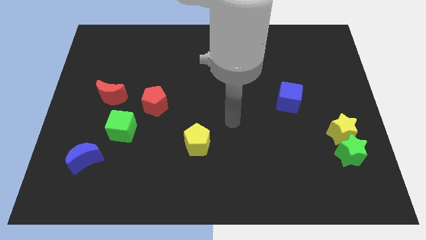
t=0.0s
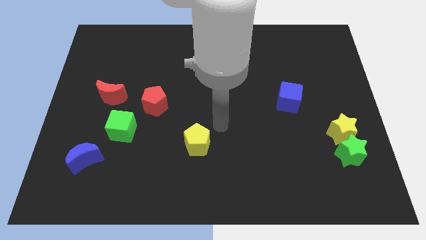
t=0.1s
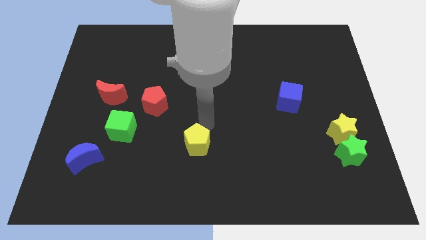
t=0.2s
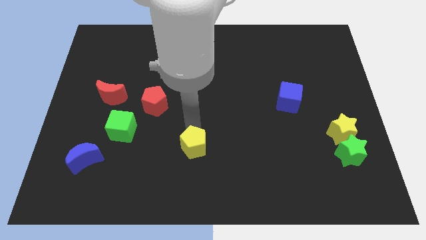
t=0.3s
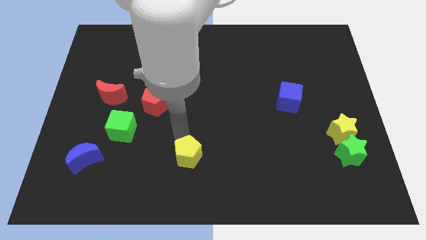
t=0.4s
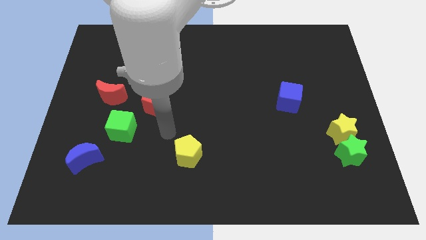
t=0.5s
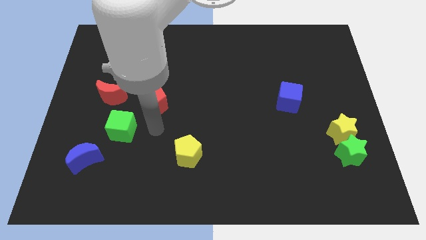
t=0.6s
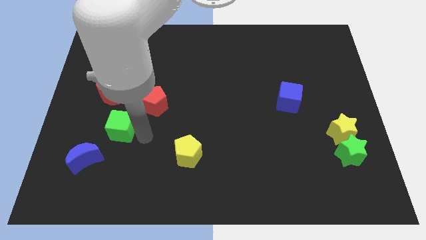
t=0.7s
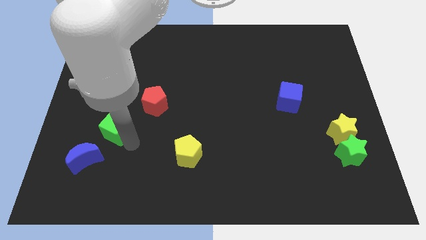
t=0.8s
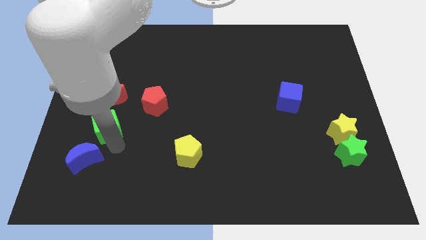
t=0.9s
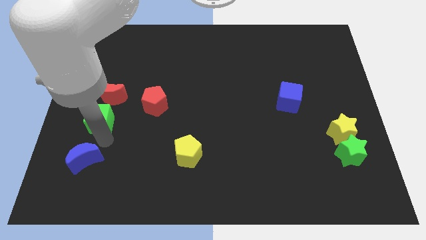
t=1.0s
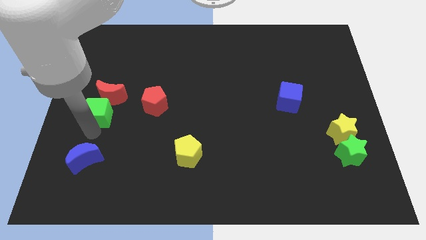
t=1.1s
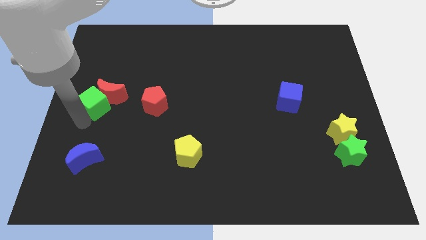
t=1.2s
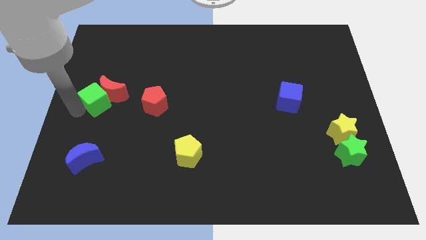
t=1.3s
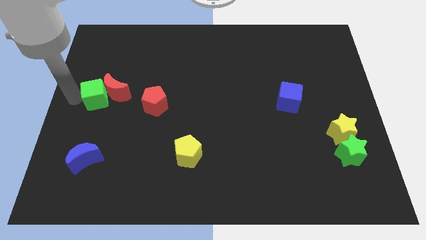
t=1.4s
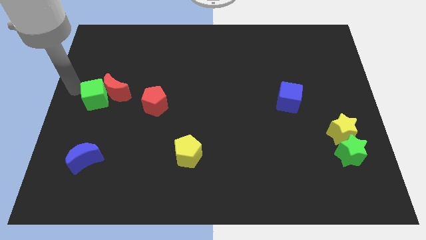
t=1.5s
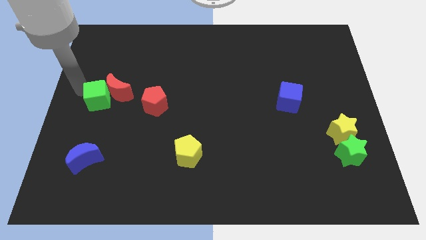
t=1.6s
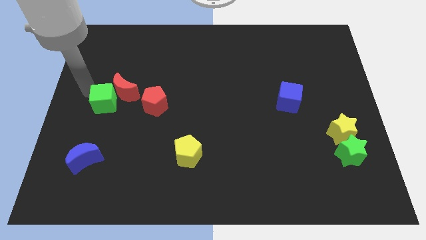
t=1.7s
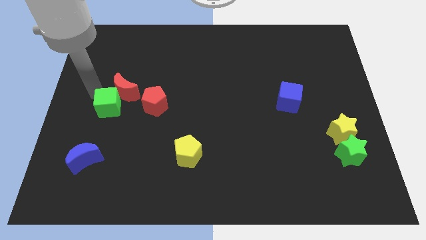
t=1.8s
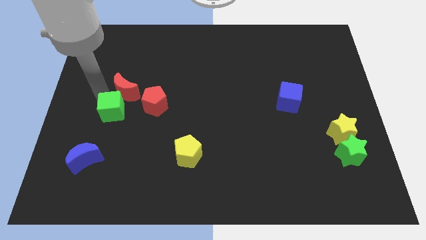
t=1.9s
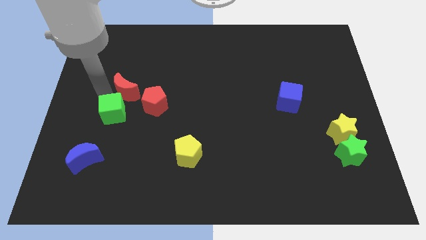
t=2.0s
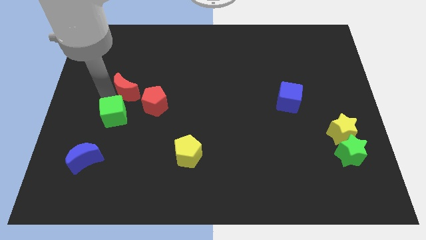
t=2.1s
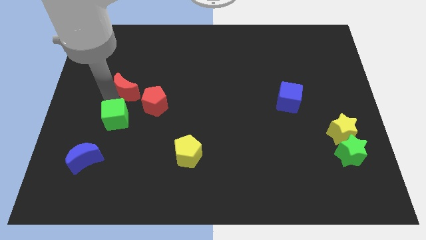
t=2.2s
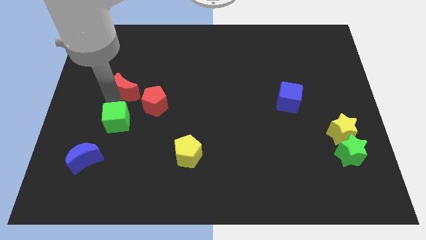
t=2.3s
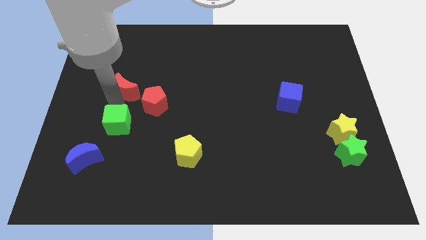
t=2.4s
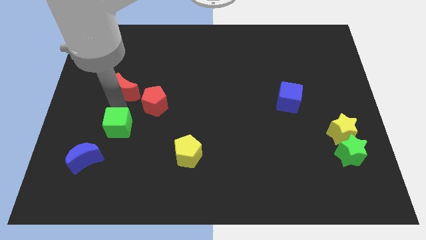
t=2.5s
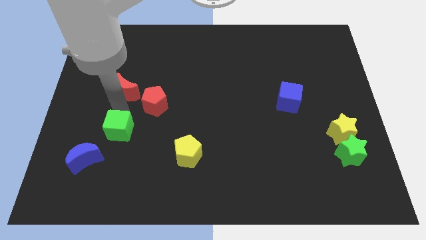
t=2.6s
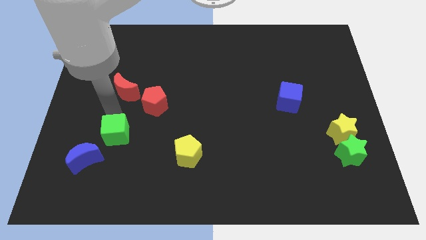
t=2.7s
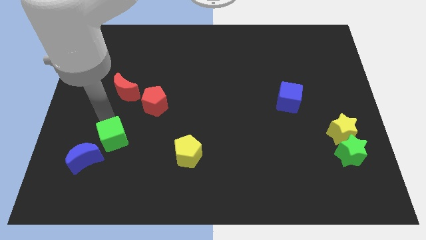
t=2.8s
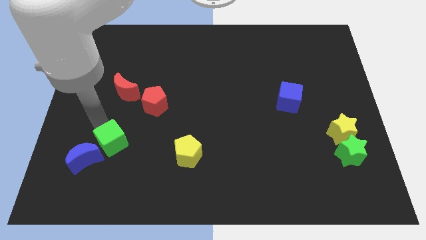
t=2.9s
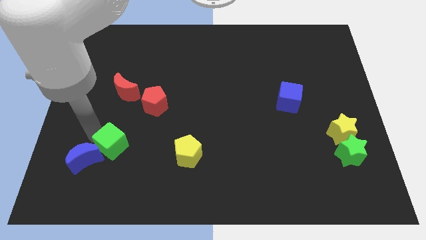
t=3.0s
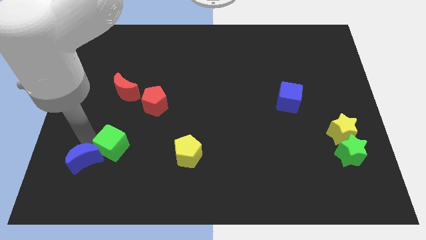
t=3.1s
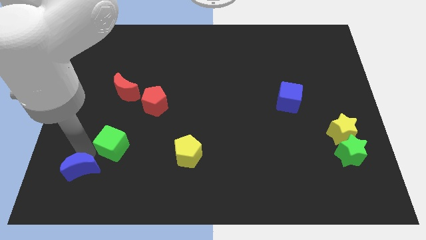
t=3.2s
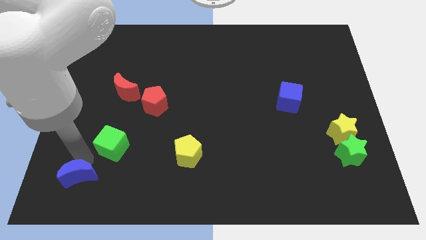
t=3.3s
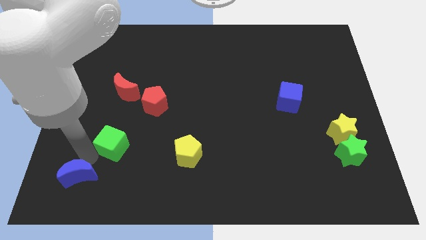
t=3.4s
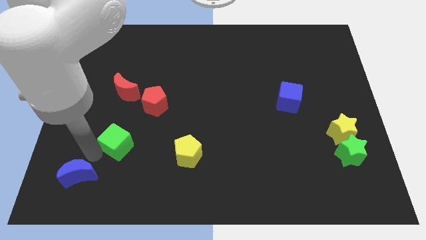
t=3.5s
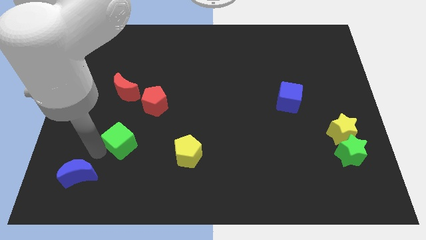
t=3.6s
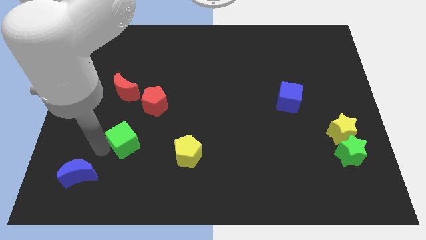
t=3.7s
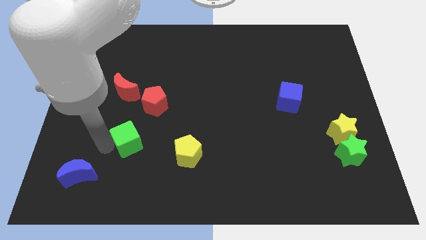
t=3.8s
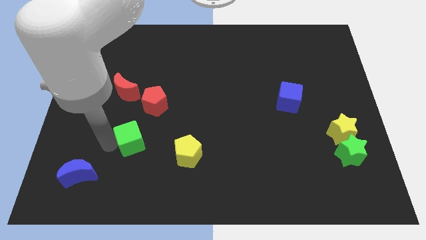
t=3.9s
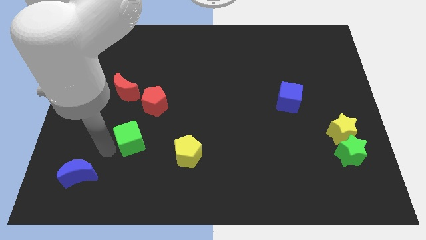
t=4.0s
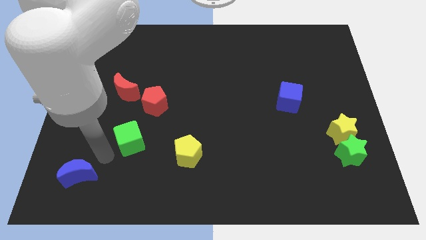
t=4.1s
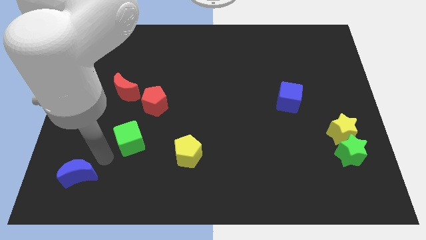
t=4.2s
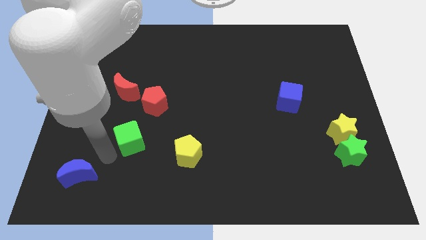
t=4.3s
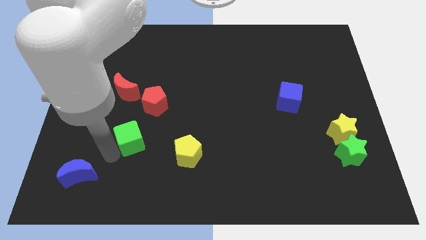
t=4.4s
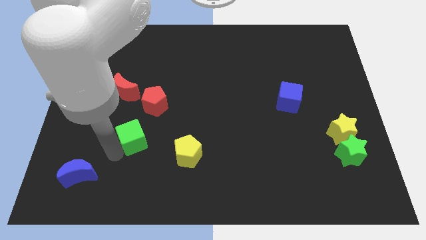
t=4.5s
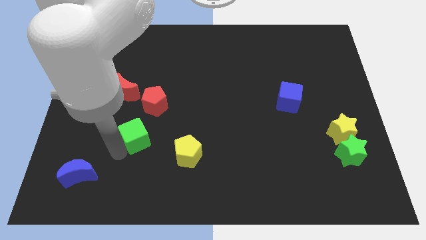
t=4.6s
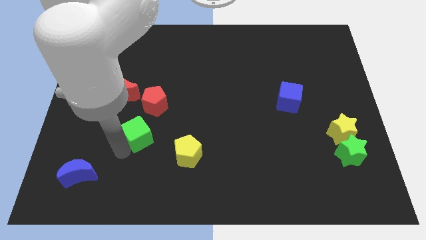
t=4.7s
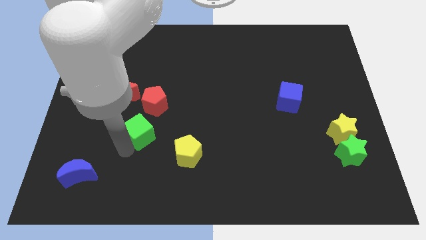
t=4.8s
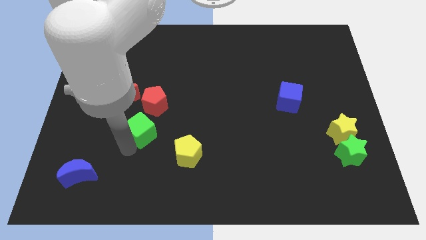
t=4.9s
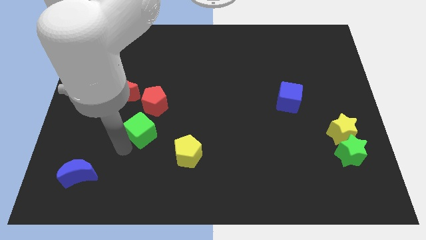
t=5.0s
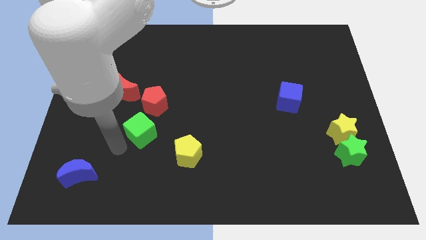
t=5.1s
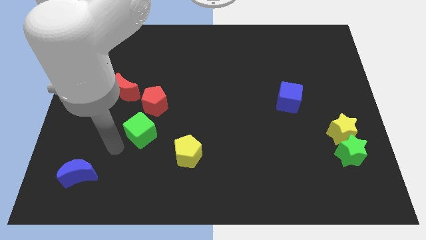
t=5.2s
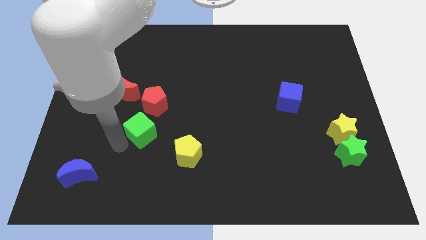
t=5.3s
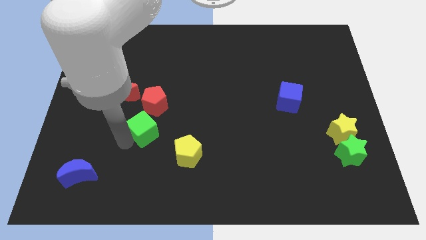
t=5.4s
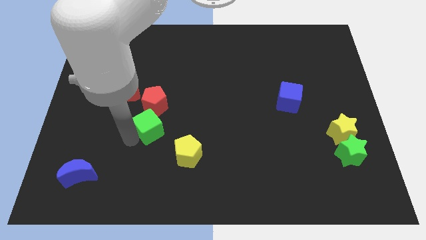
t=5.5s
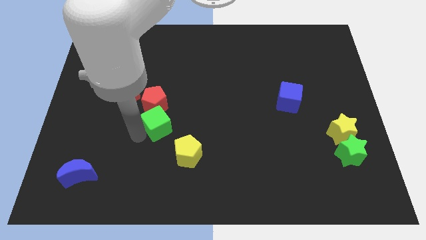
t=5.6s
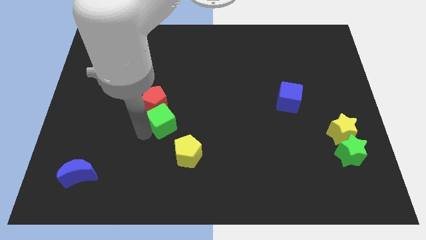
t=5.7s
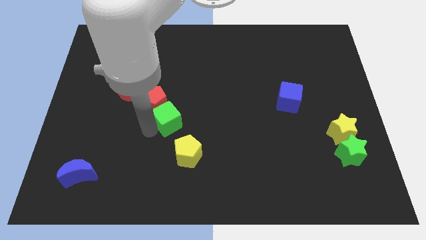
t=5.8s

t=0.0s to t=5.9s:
move the green cube to the center of the board

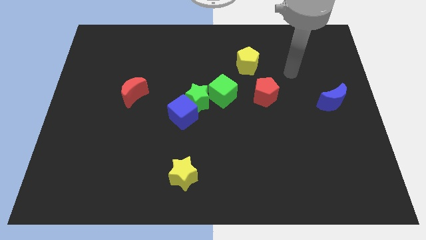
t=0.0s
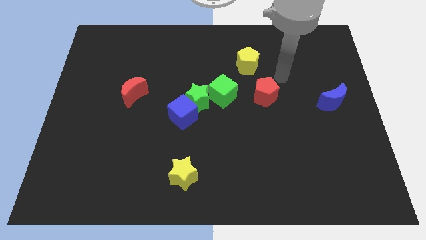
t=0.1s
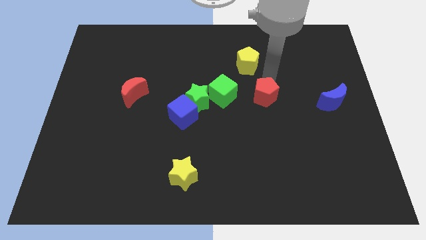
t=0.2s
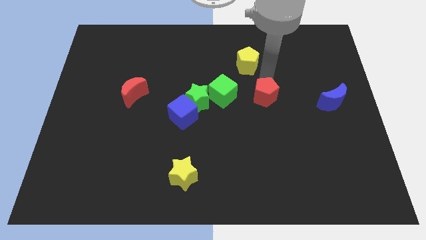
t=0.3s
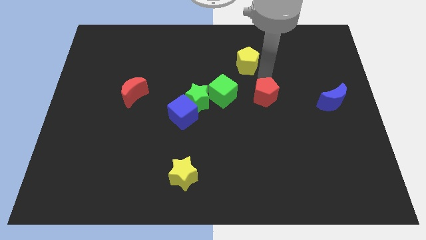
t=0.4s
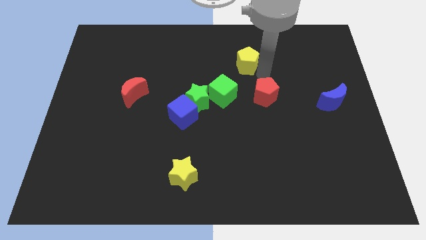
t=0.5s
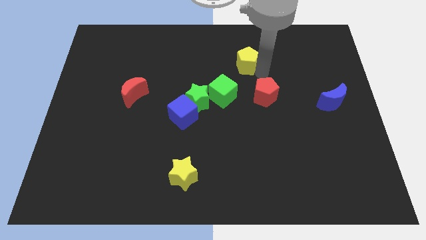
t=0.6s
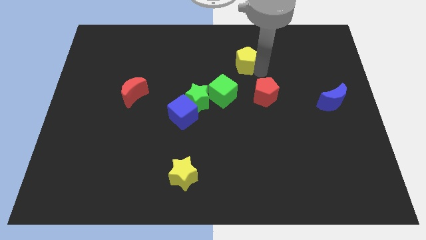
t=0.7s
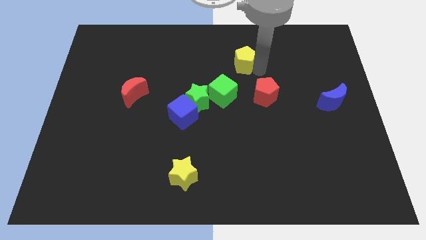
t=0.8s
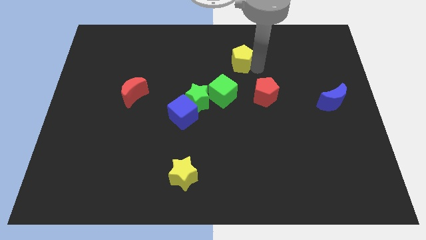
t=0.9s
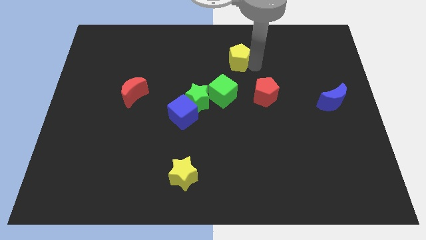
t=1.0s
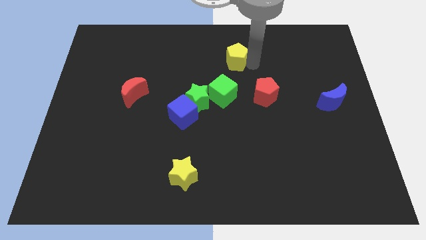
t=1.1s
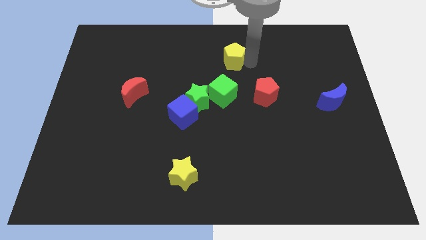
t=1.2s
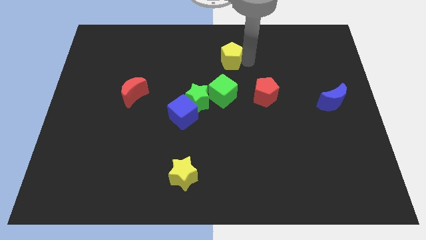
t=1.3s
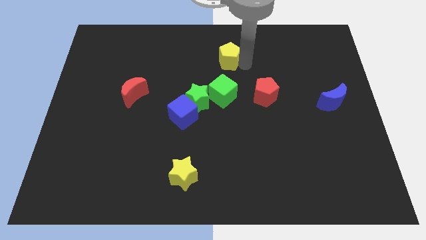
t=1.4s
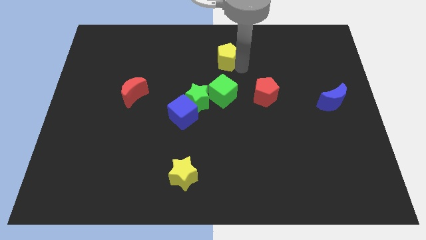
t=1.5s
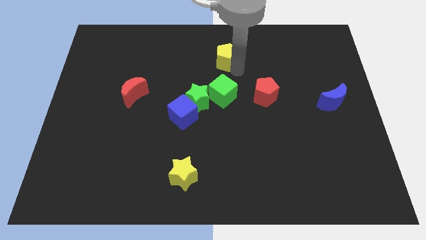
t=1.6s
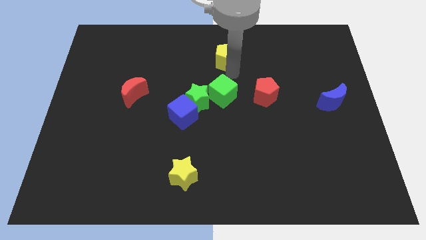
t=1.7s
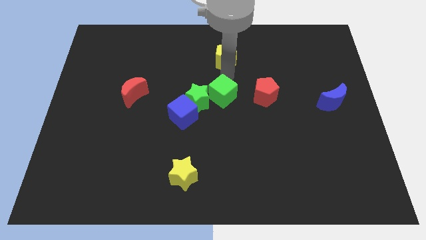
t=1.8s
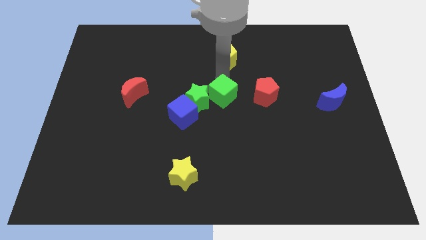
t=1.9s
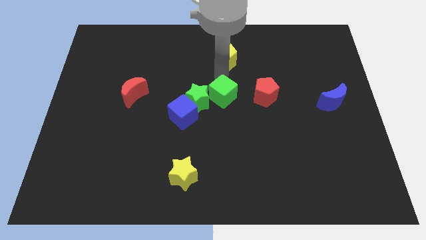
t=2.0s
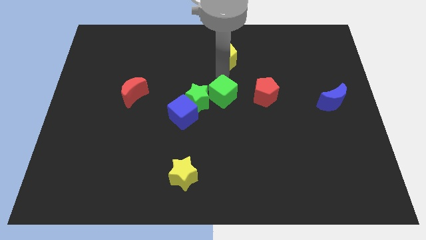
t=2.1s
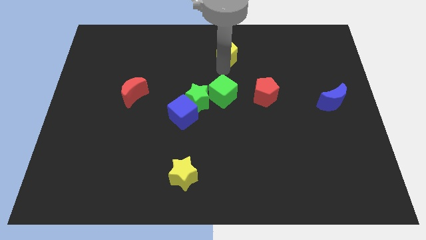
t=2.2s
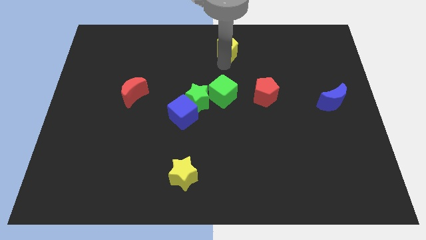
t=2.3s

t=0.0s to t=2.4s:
move the yellow pentagon to the top
